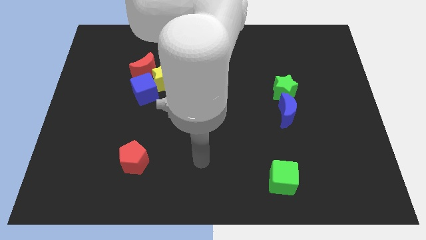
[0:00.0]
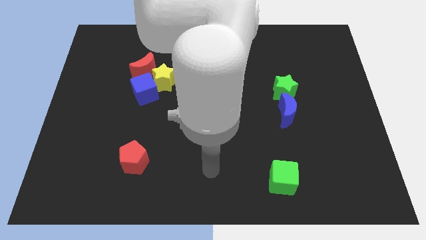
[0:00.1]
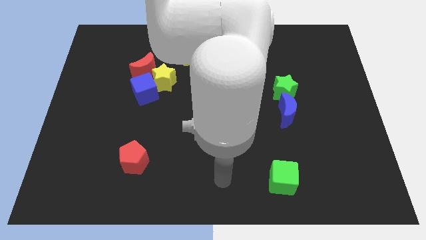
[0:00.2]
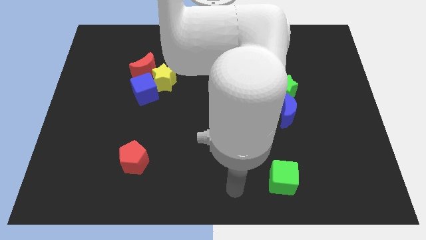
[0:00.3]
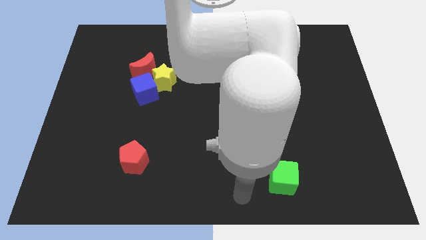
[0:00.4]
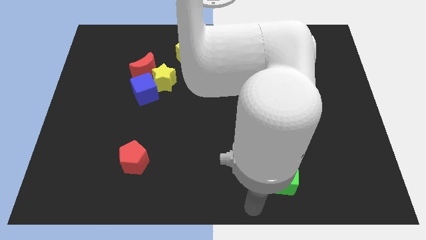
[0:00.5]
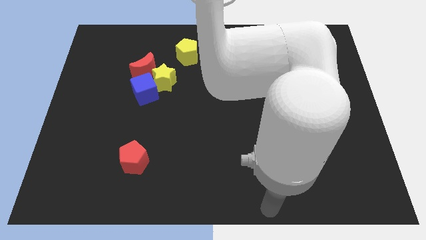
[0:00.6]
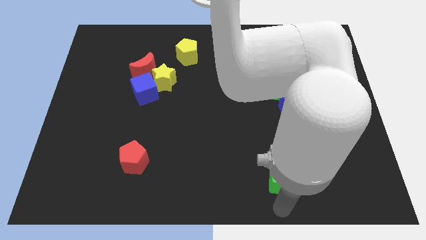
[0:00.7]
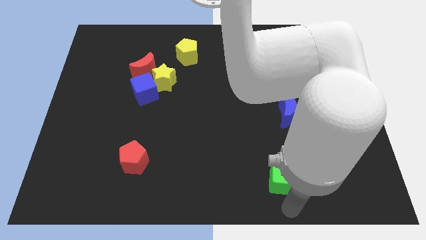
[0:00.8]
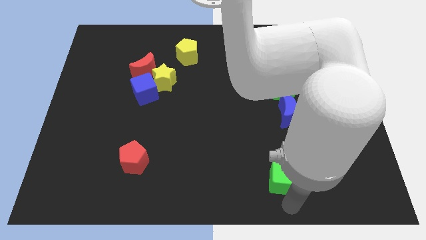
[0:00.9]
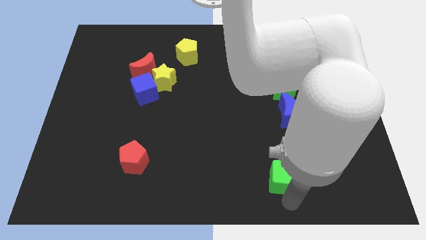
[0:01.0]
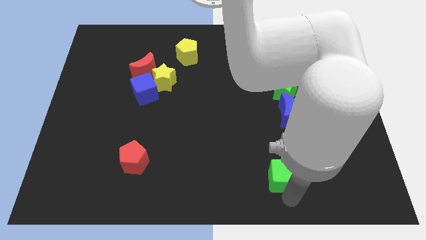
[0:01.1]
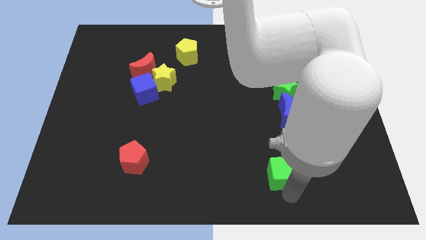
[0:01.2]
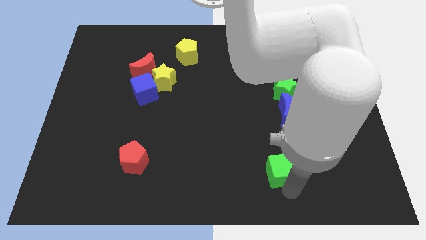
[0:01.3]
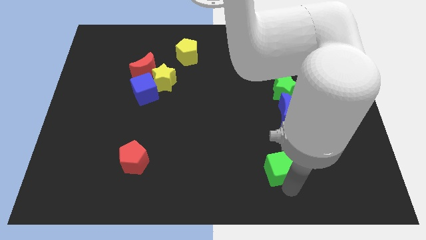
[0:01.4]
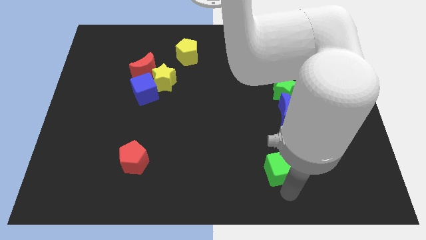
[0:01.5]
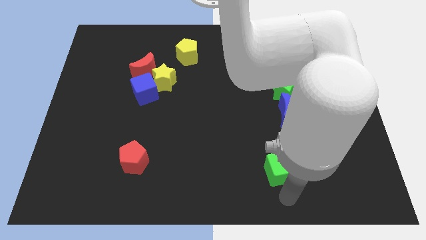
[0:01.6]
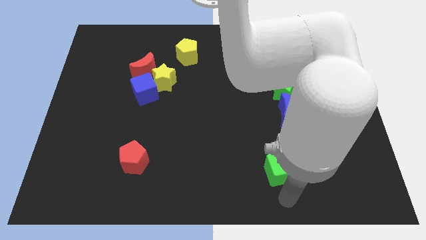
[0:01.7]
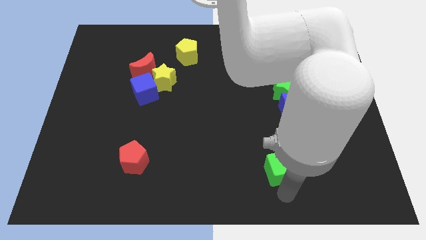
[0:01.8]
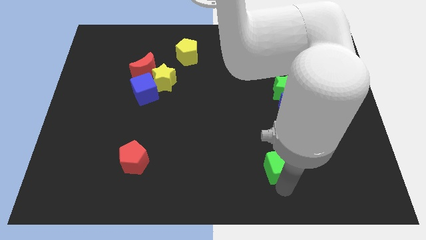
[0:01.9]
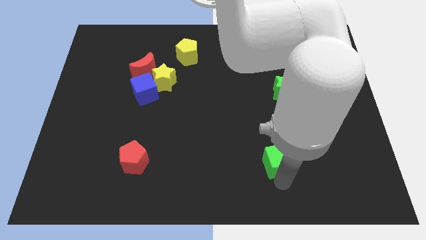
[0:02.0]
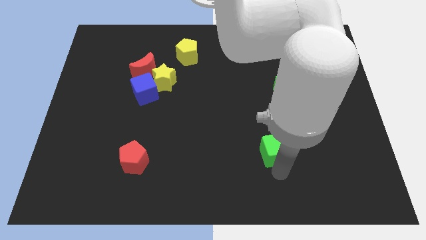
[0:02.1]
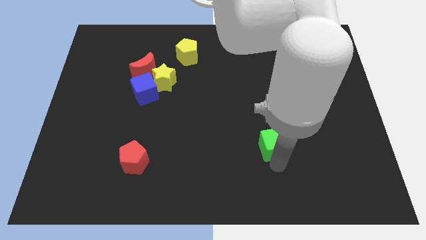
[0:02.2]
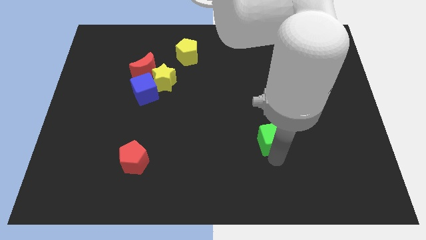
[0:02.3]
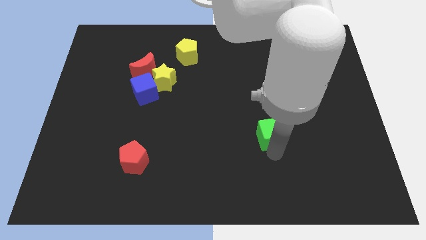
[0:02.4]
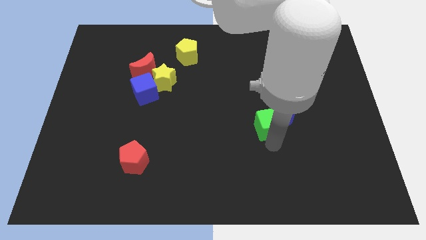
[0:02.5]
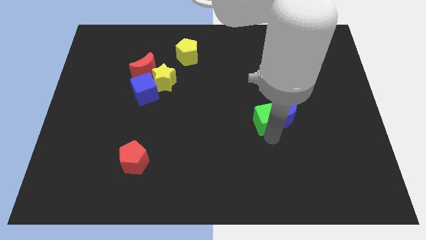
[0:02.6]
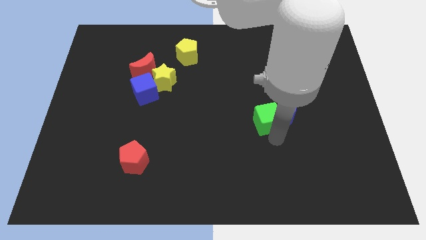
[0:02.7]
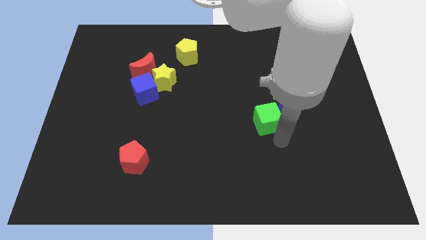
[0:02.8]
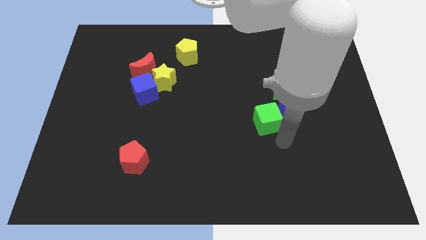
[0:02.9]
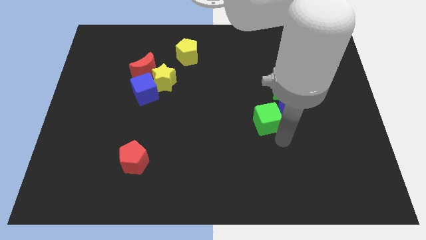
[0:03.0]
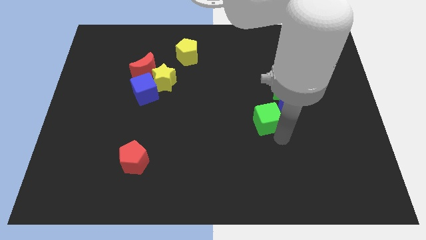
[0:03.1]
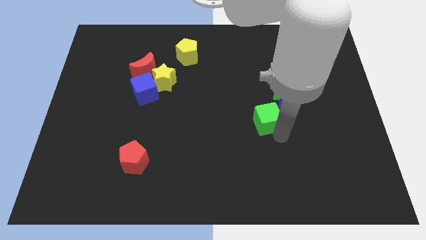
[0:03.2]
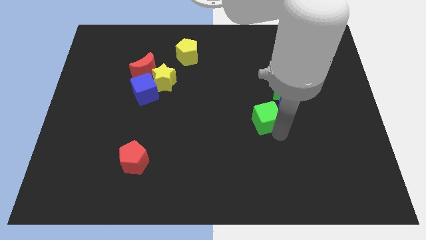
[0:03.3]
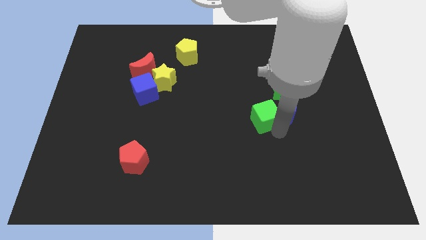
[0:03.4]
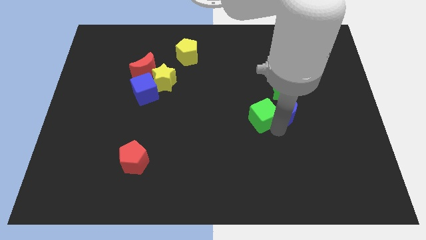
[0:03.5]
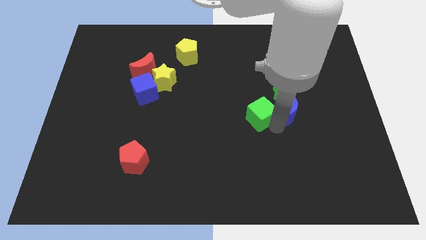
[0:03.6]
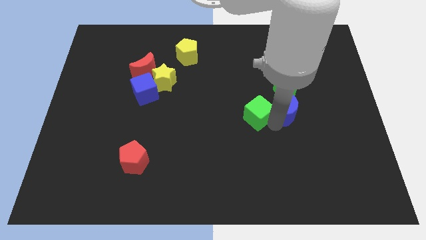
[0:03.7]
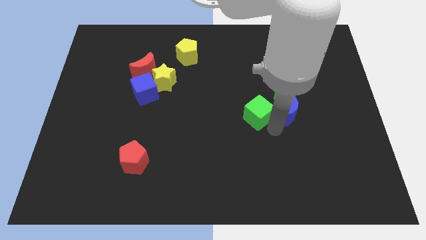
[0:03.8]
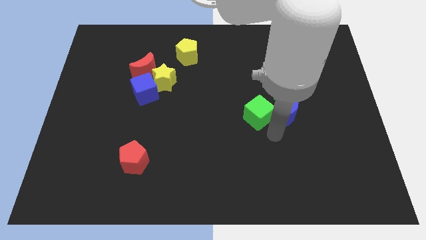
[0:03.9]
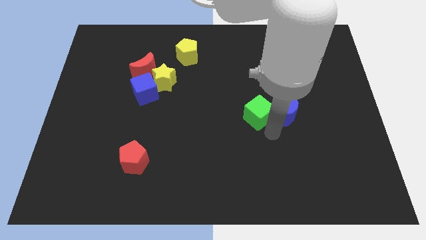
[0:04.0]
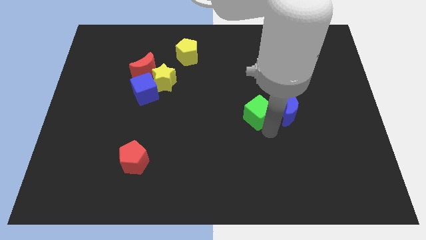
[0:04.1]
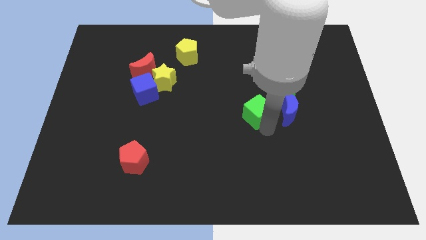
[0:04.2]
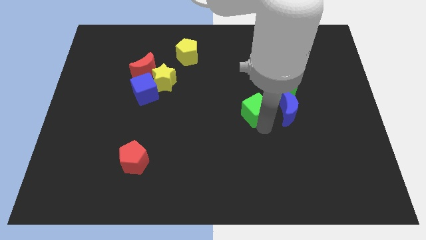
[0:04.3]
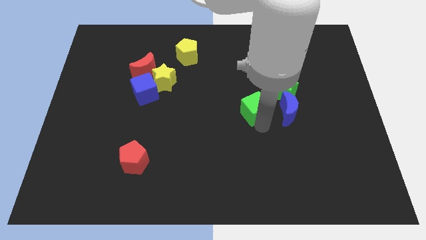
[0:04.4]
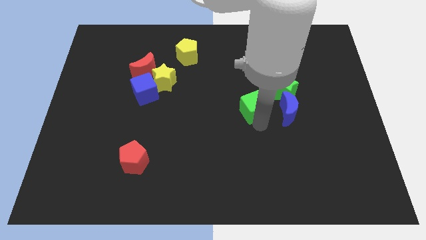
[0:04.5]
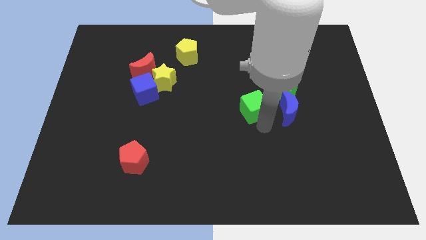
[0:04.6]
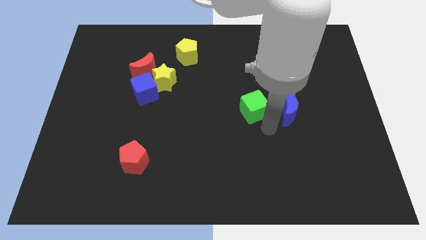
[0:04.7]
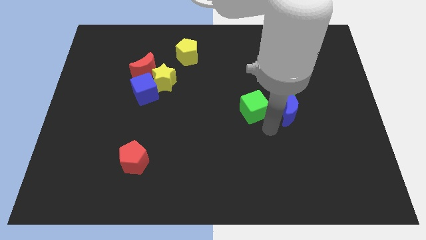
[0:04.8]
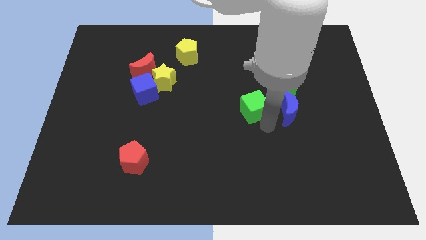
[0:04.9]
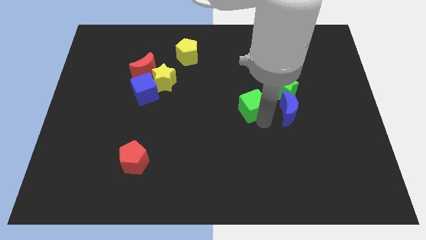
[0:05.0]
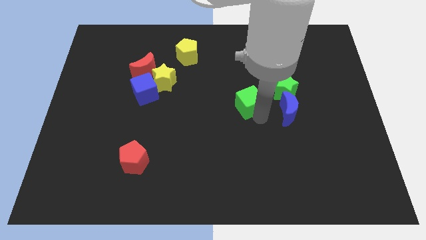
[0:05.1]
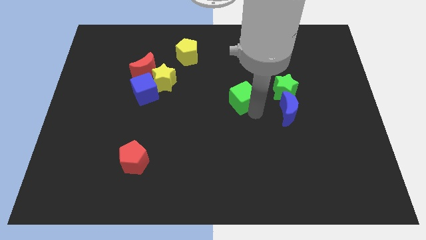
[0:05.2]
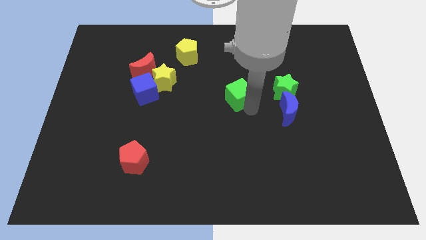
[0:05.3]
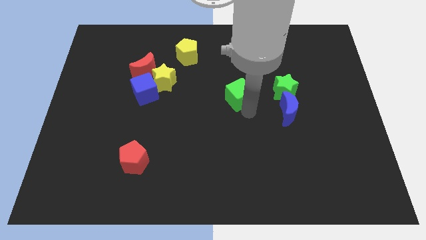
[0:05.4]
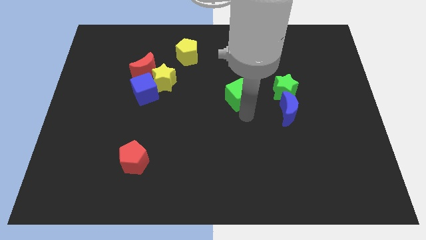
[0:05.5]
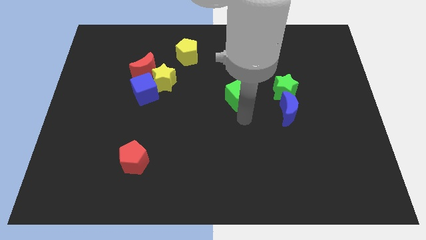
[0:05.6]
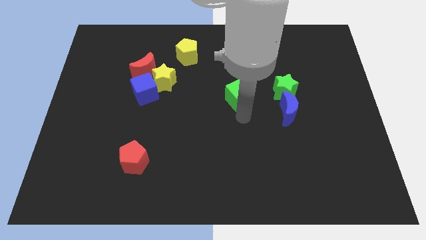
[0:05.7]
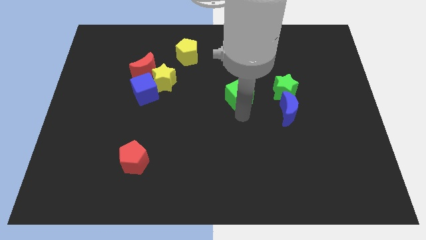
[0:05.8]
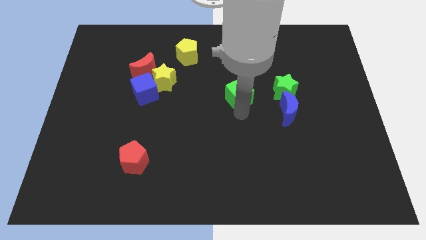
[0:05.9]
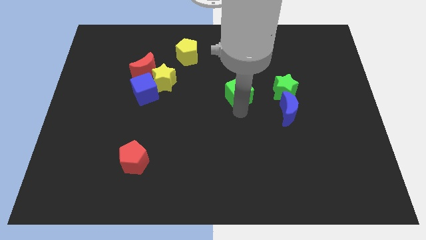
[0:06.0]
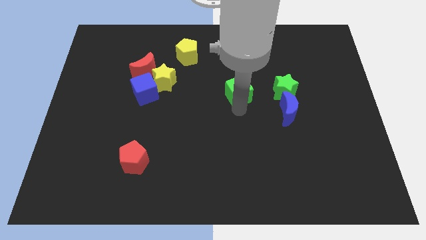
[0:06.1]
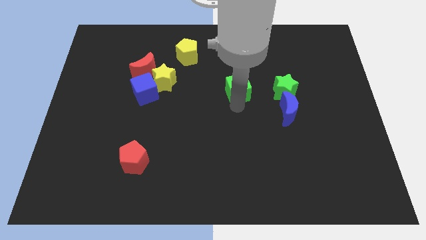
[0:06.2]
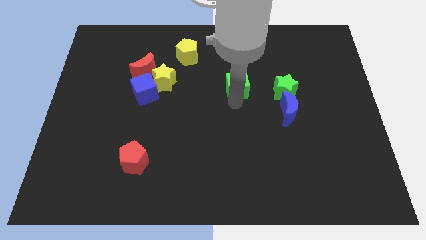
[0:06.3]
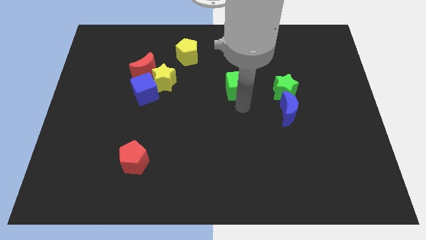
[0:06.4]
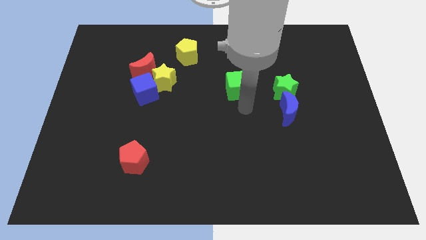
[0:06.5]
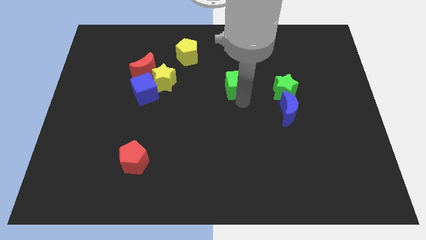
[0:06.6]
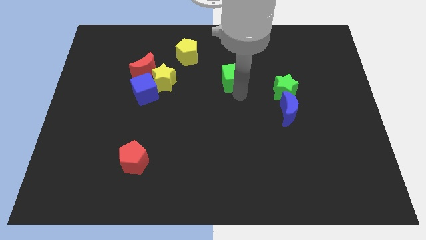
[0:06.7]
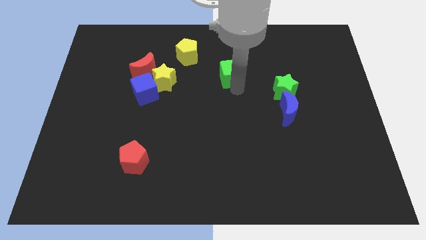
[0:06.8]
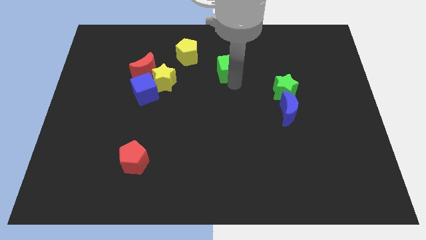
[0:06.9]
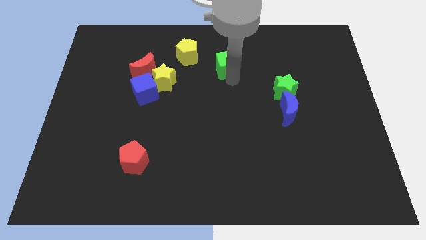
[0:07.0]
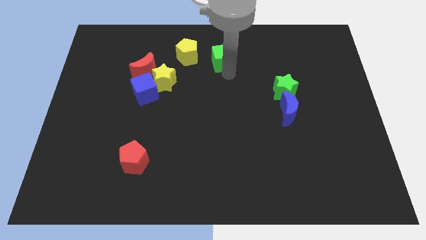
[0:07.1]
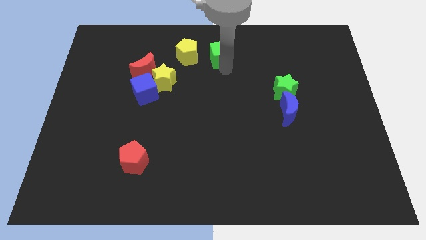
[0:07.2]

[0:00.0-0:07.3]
put the green cube to the top side
